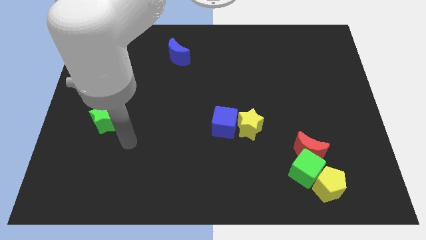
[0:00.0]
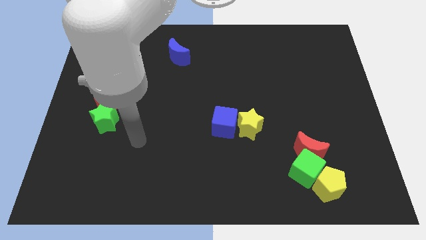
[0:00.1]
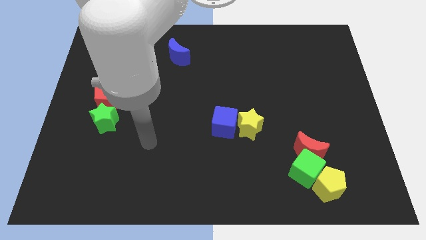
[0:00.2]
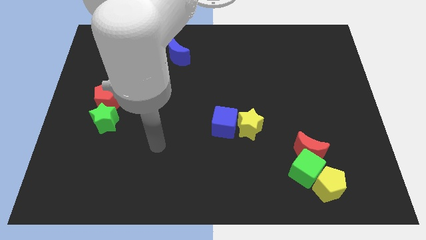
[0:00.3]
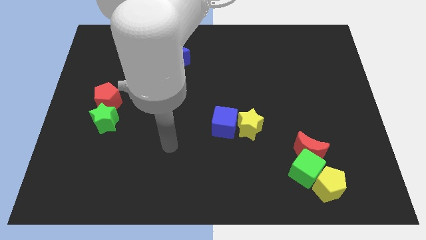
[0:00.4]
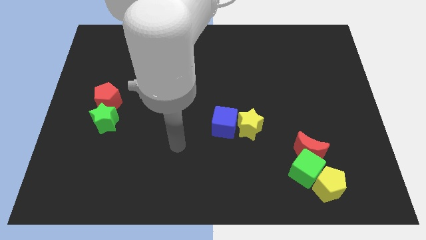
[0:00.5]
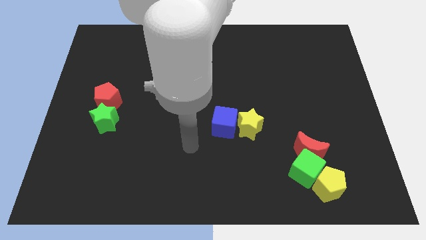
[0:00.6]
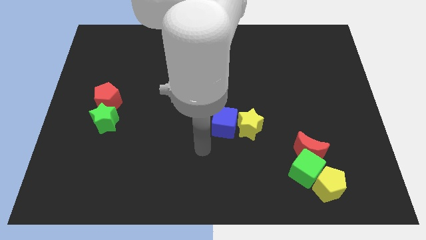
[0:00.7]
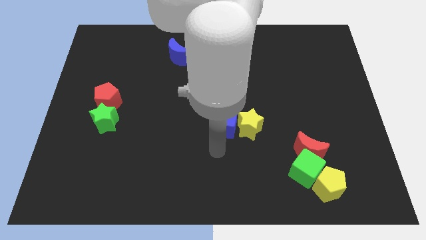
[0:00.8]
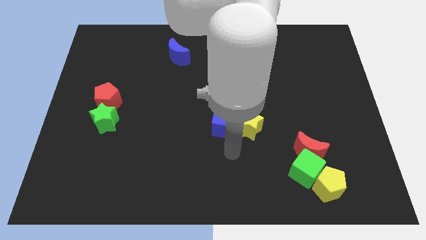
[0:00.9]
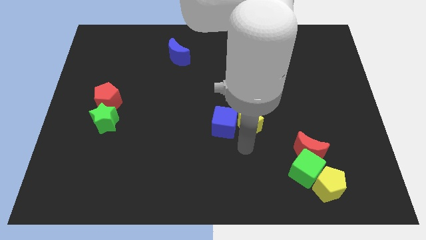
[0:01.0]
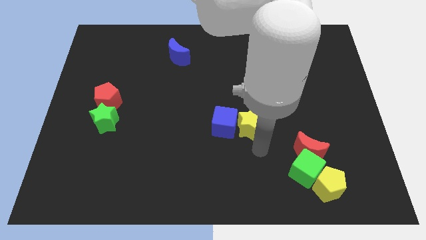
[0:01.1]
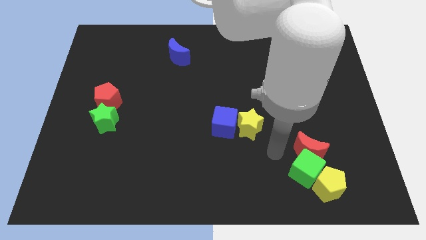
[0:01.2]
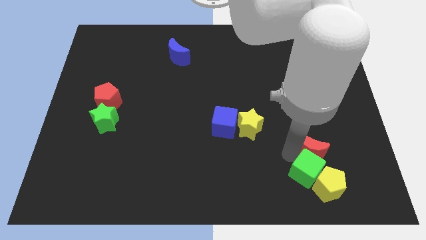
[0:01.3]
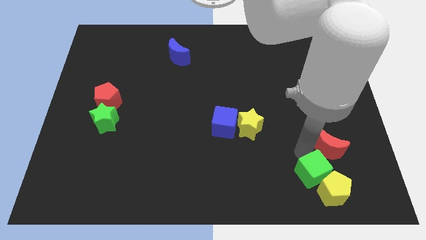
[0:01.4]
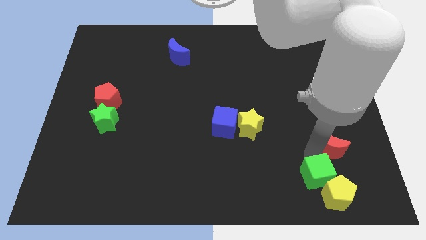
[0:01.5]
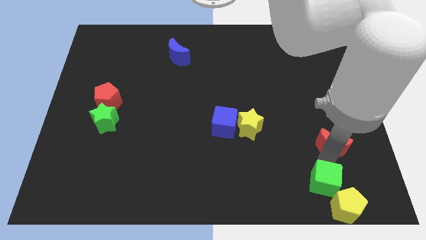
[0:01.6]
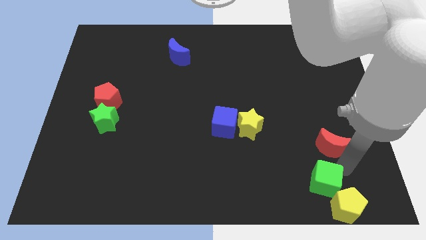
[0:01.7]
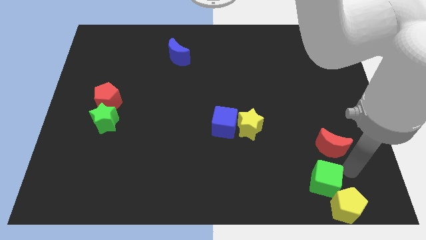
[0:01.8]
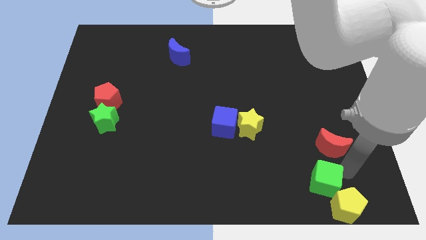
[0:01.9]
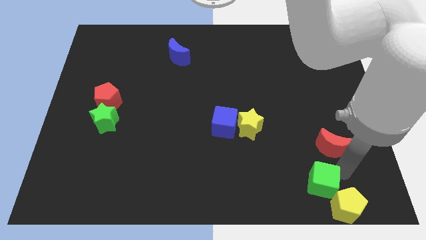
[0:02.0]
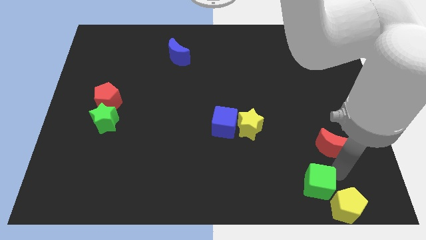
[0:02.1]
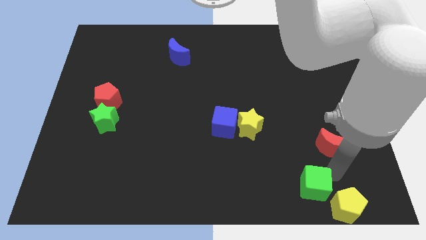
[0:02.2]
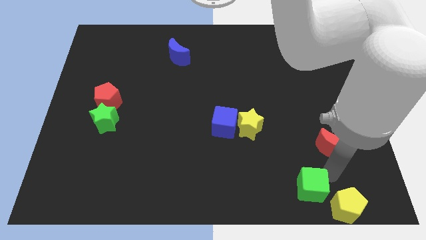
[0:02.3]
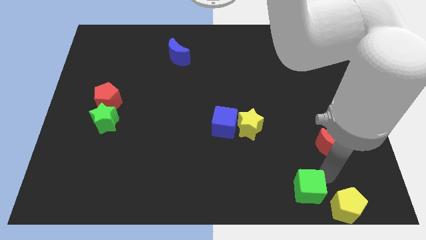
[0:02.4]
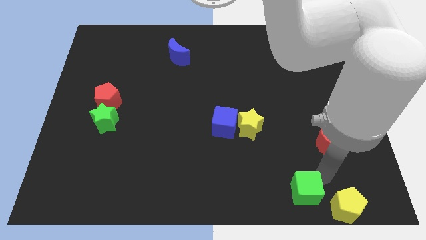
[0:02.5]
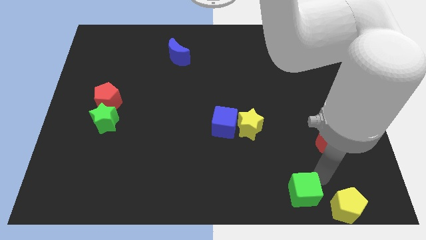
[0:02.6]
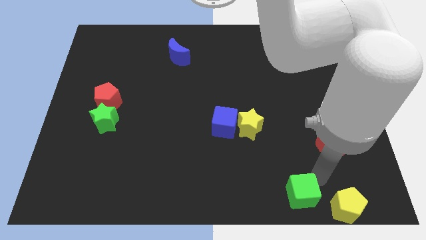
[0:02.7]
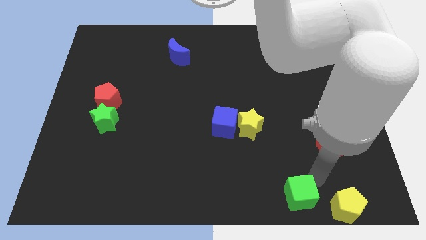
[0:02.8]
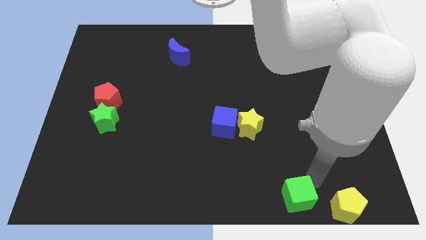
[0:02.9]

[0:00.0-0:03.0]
move the green cube away from the red moon and yellow pentagon

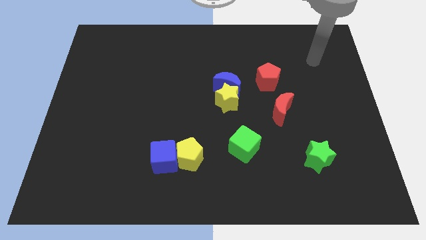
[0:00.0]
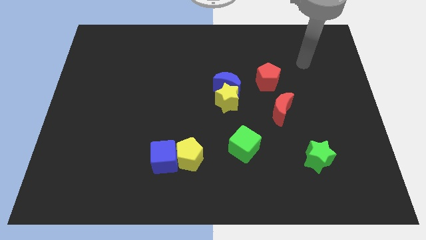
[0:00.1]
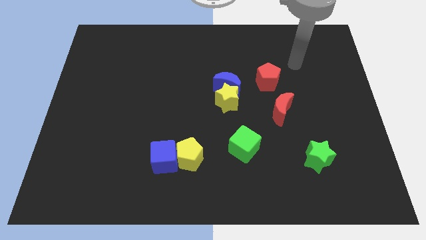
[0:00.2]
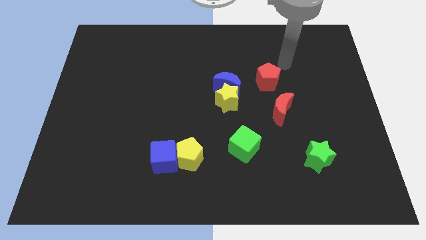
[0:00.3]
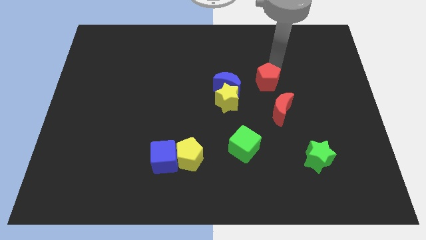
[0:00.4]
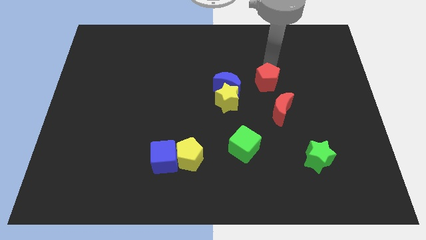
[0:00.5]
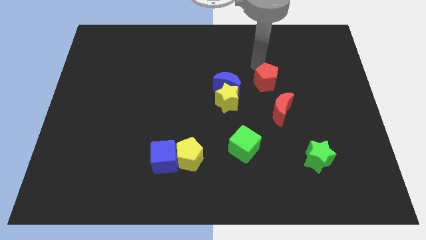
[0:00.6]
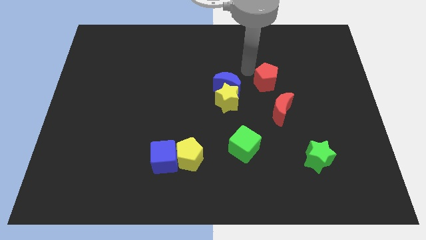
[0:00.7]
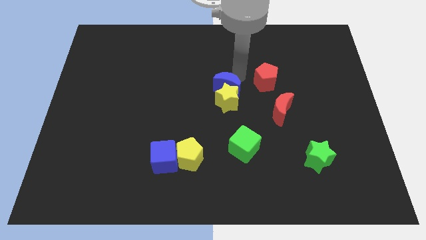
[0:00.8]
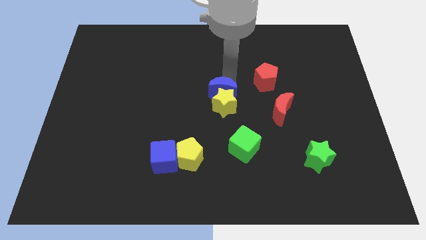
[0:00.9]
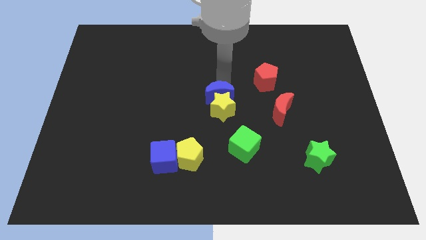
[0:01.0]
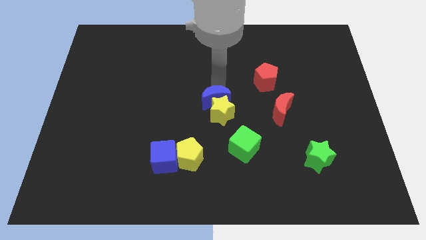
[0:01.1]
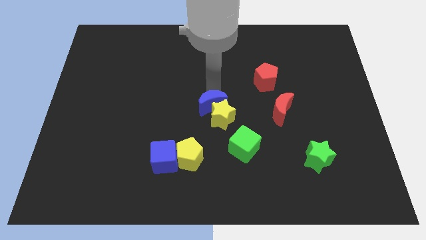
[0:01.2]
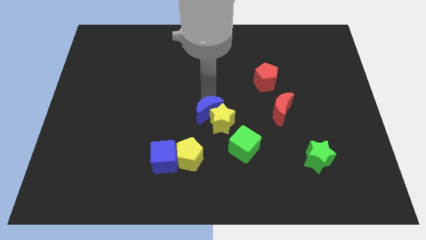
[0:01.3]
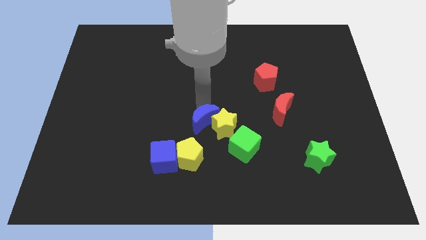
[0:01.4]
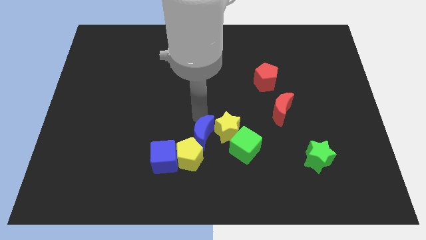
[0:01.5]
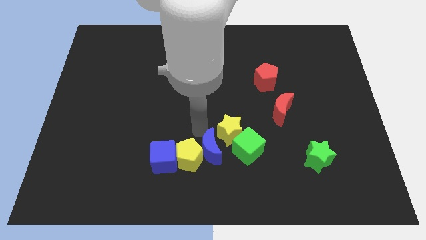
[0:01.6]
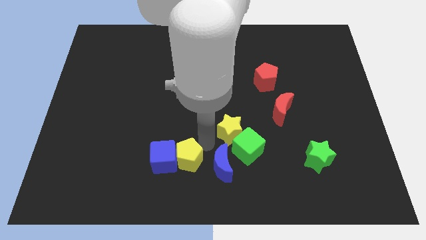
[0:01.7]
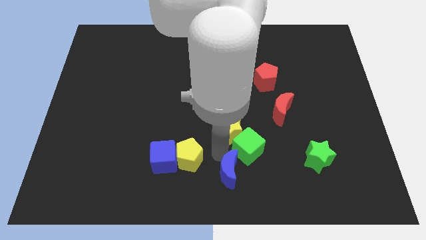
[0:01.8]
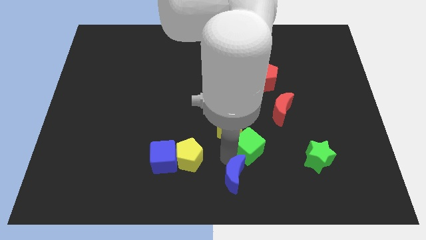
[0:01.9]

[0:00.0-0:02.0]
move the yellow star away from the blue moon

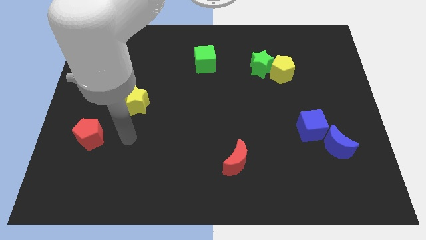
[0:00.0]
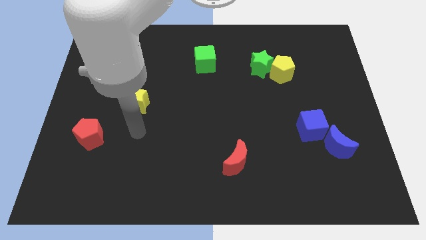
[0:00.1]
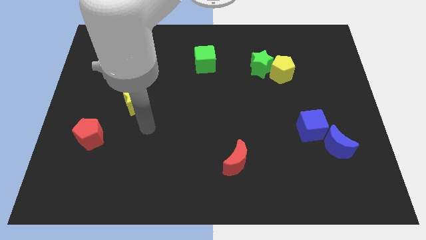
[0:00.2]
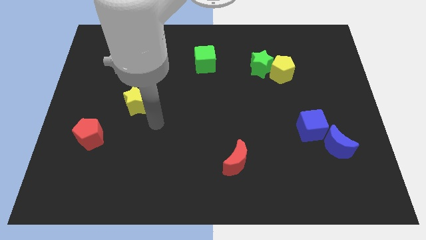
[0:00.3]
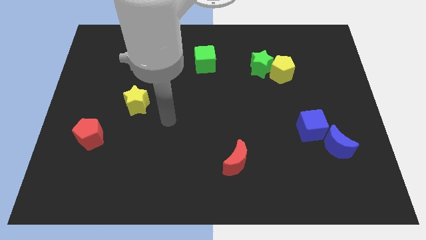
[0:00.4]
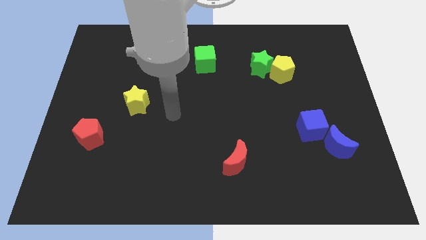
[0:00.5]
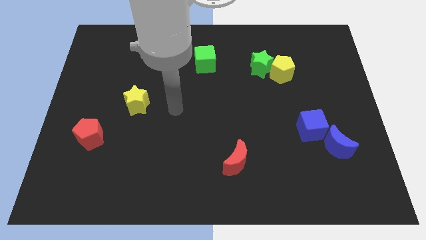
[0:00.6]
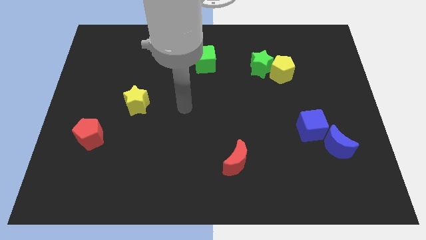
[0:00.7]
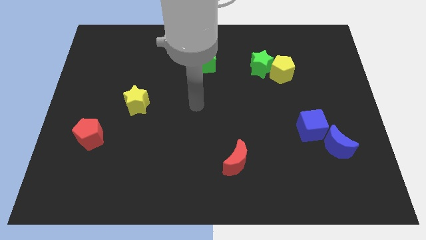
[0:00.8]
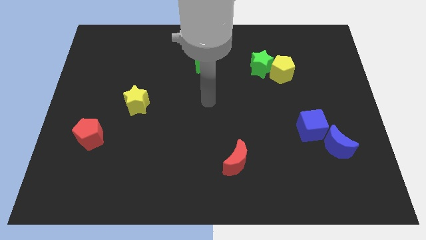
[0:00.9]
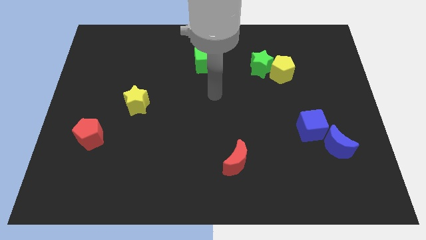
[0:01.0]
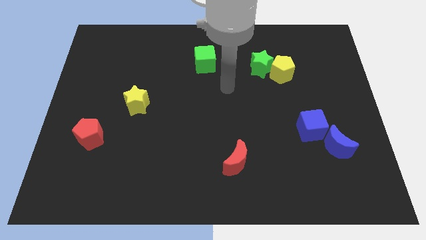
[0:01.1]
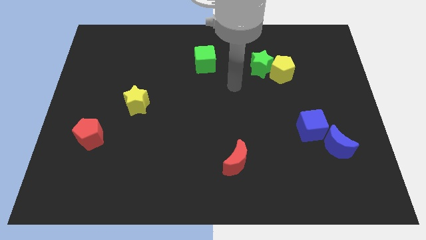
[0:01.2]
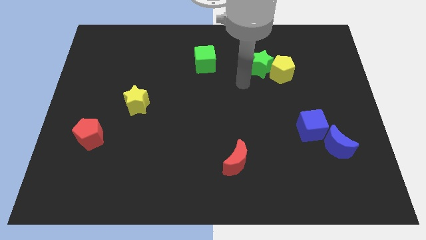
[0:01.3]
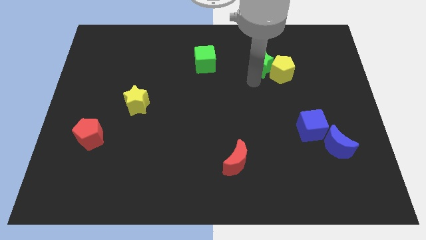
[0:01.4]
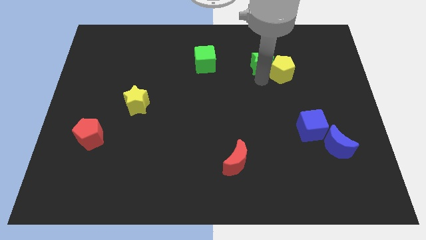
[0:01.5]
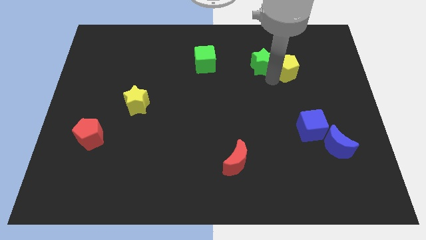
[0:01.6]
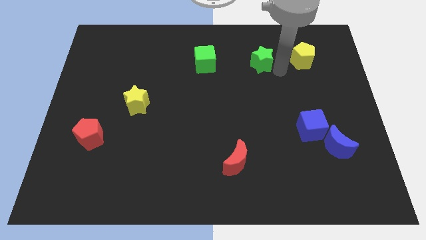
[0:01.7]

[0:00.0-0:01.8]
pull the green star apart from the yellow pentagon

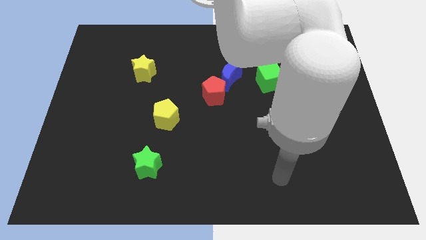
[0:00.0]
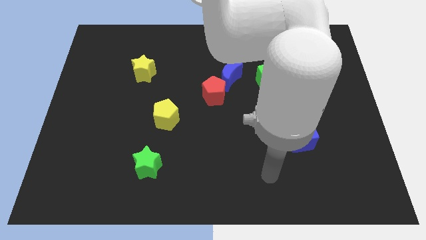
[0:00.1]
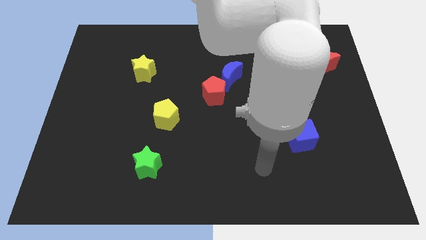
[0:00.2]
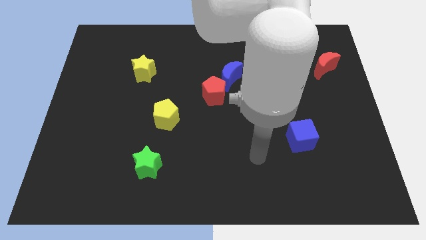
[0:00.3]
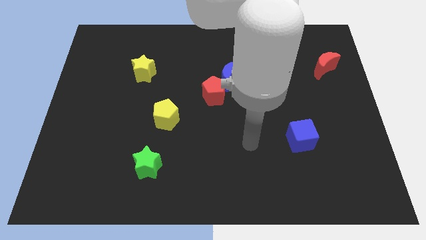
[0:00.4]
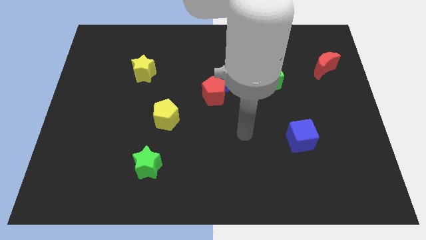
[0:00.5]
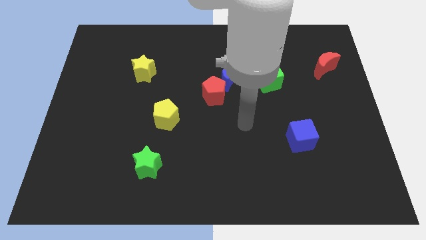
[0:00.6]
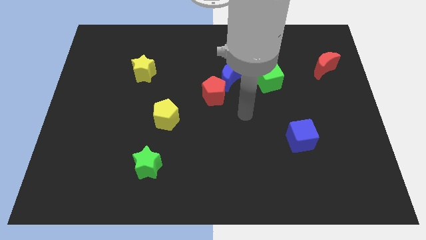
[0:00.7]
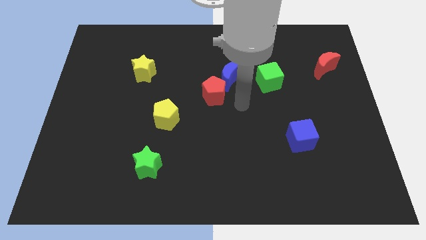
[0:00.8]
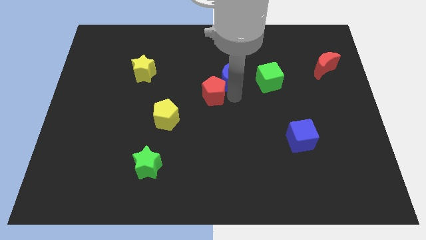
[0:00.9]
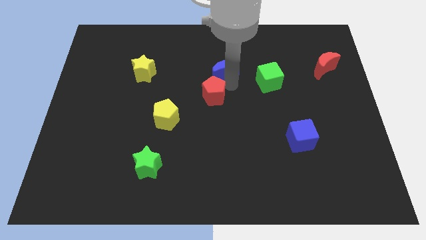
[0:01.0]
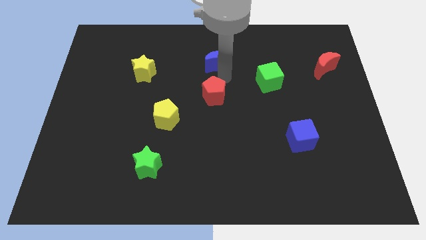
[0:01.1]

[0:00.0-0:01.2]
pull the red pentagon apart from the blue moon

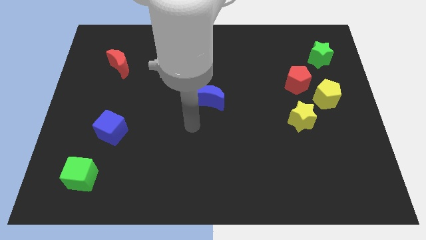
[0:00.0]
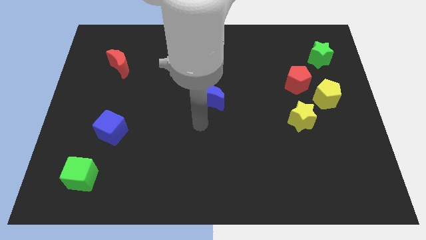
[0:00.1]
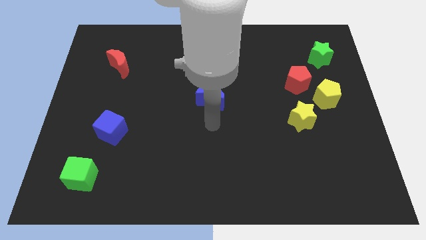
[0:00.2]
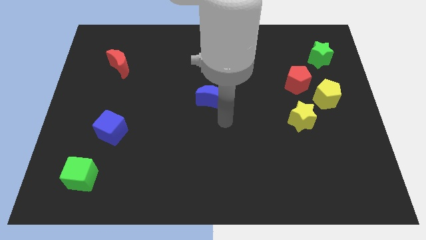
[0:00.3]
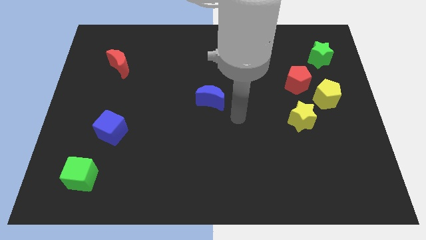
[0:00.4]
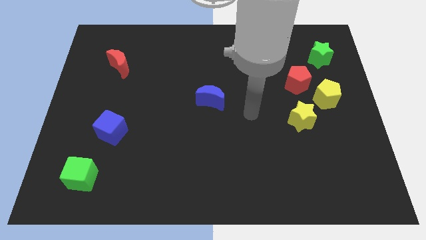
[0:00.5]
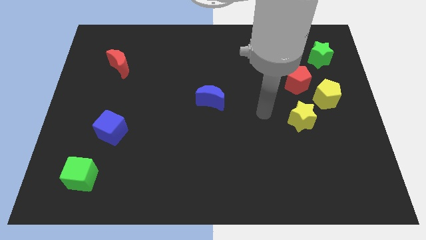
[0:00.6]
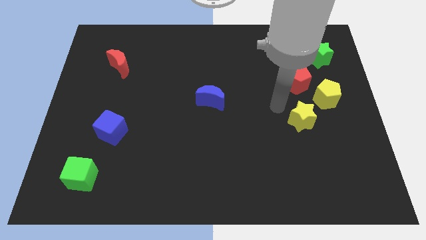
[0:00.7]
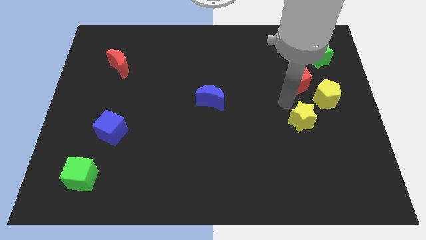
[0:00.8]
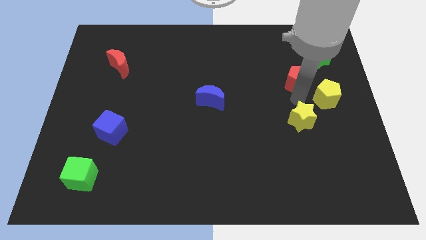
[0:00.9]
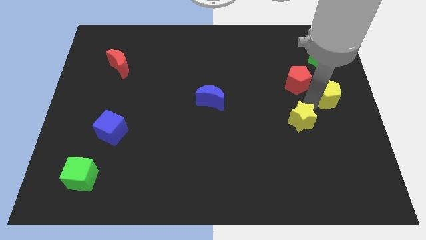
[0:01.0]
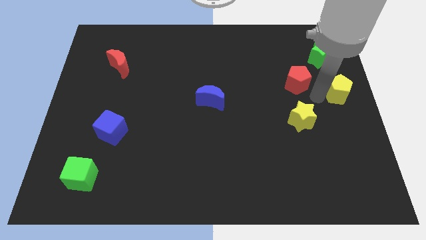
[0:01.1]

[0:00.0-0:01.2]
move the red pentagon away from the yellow pentagon
